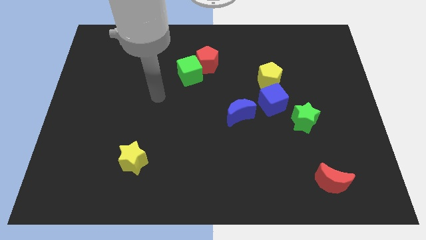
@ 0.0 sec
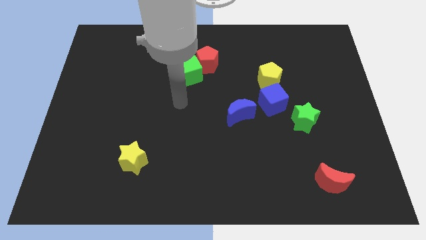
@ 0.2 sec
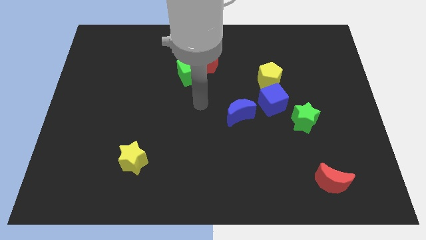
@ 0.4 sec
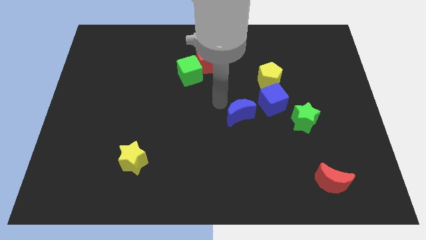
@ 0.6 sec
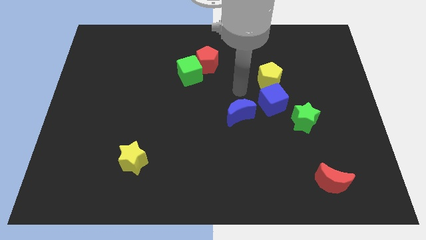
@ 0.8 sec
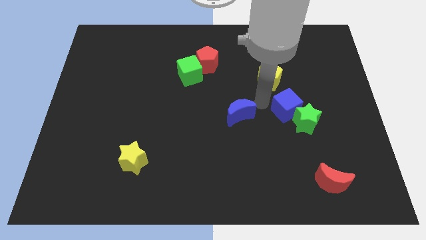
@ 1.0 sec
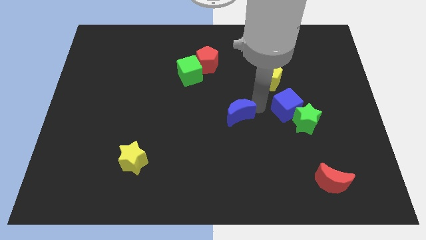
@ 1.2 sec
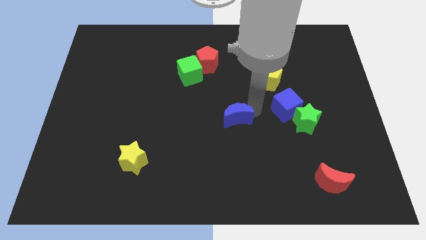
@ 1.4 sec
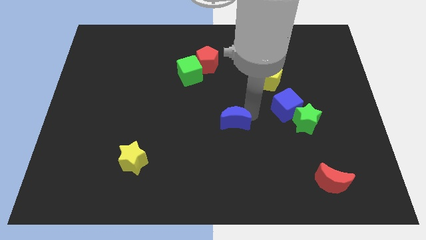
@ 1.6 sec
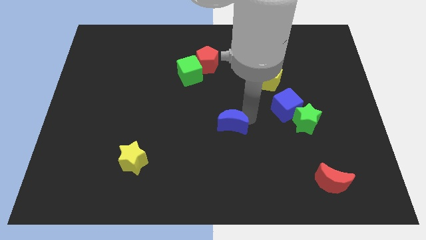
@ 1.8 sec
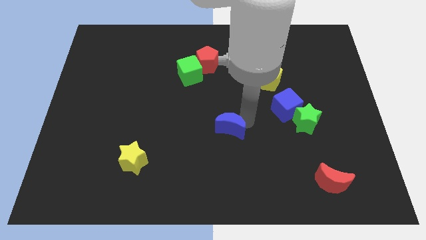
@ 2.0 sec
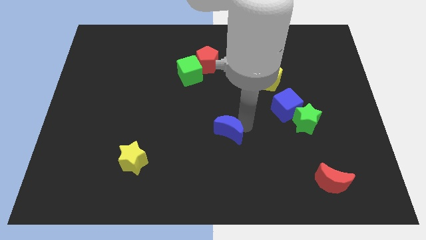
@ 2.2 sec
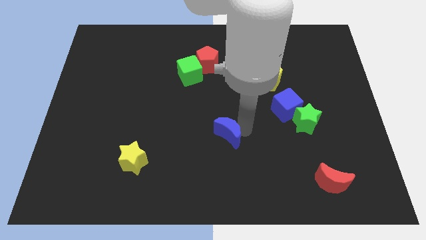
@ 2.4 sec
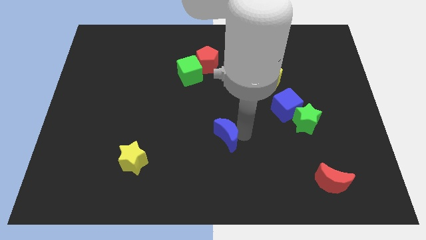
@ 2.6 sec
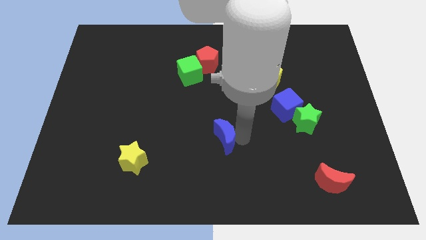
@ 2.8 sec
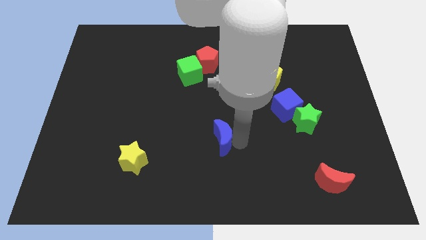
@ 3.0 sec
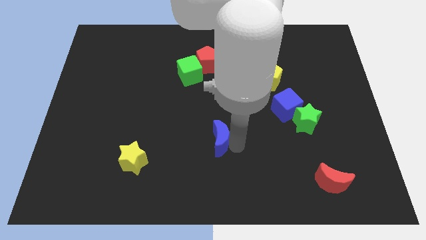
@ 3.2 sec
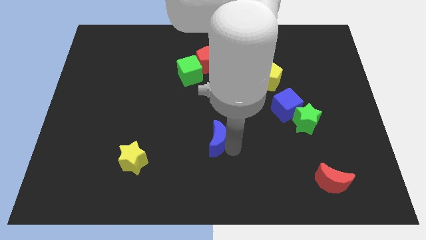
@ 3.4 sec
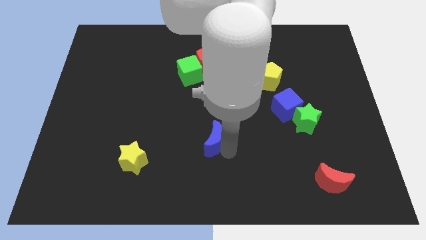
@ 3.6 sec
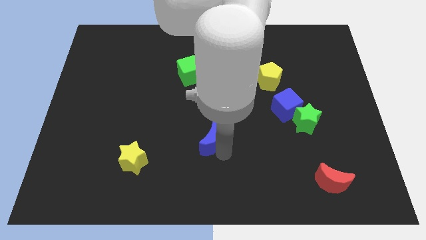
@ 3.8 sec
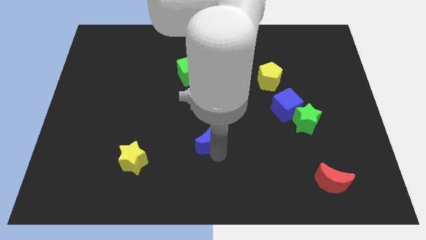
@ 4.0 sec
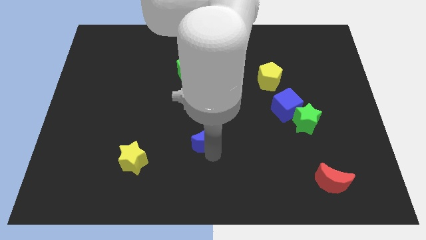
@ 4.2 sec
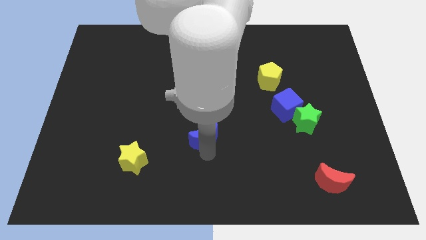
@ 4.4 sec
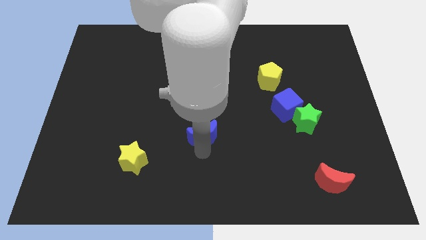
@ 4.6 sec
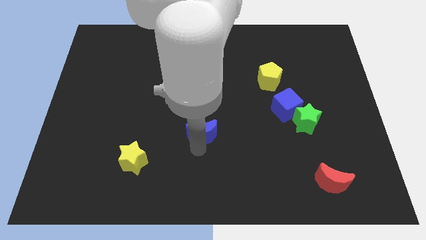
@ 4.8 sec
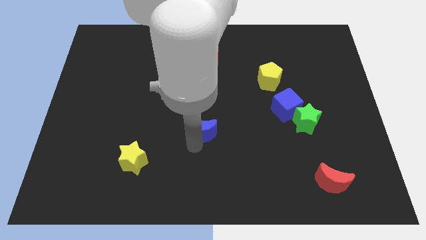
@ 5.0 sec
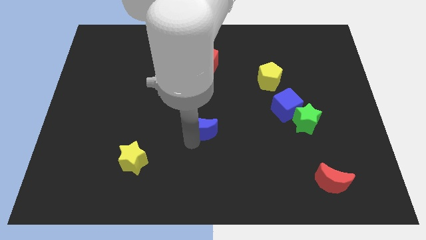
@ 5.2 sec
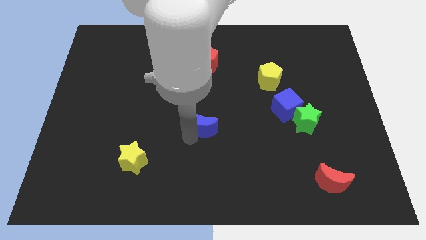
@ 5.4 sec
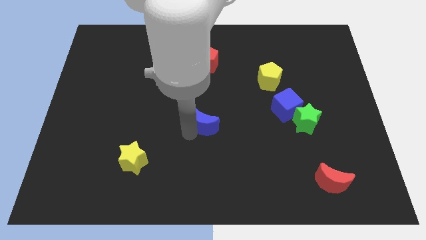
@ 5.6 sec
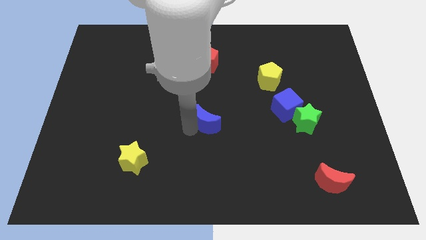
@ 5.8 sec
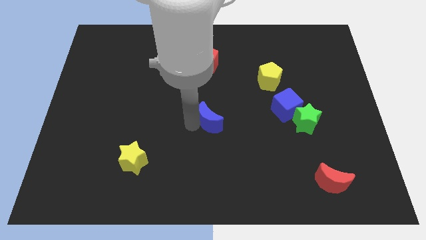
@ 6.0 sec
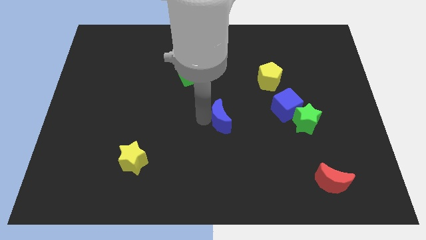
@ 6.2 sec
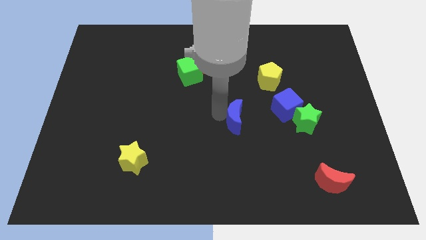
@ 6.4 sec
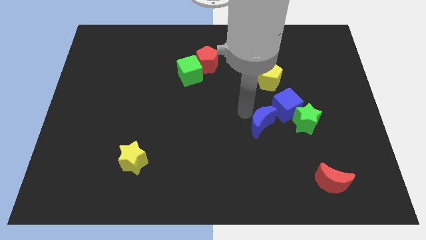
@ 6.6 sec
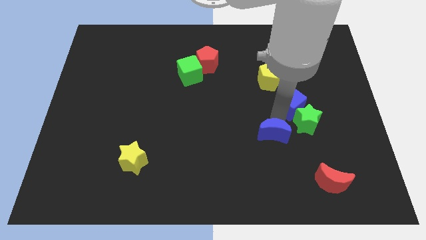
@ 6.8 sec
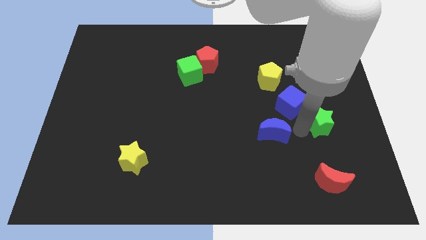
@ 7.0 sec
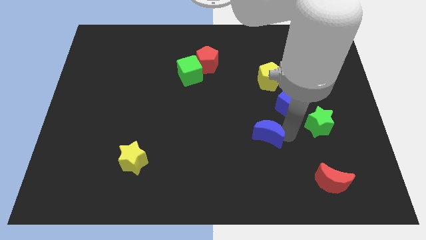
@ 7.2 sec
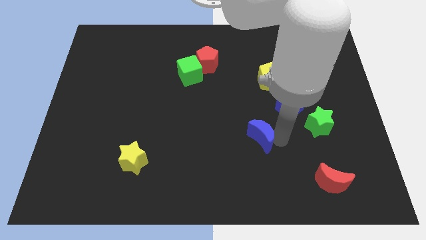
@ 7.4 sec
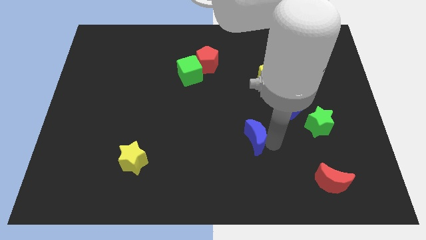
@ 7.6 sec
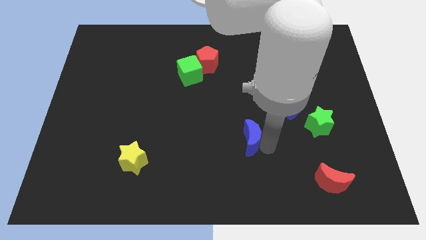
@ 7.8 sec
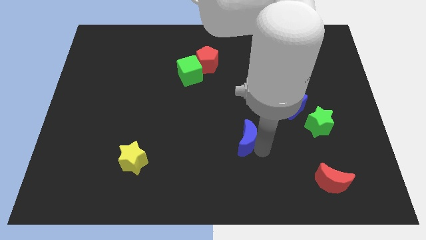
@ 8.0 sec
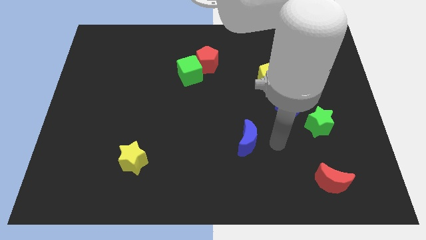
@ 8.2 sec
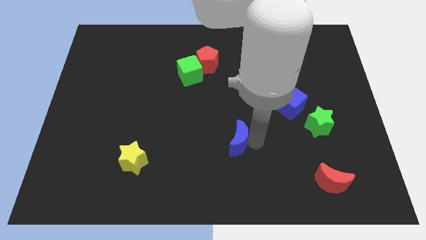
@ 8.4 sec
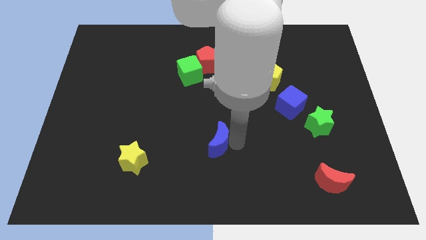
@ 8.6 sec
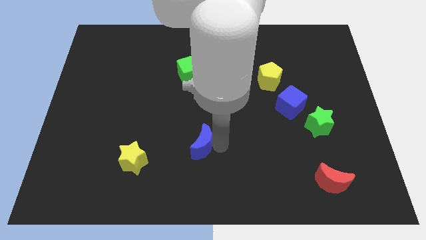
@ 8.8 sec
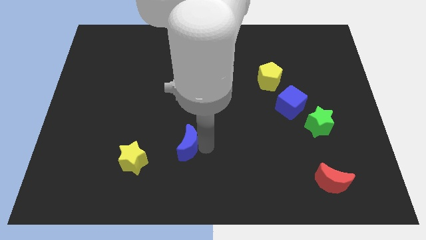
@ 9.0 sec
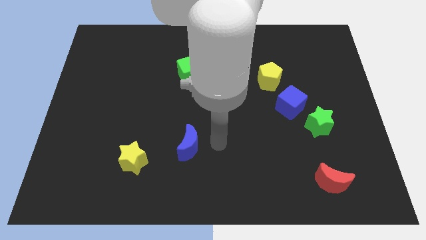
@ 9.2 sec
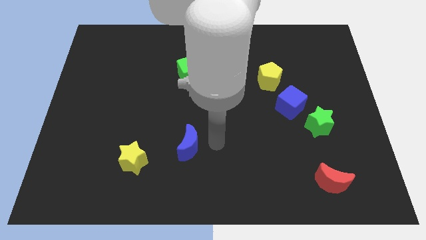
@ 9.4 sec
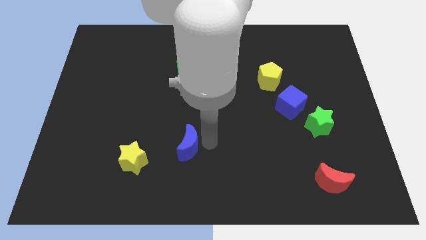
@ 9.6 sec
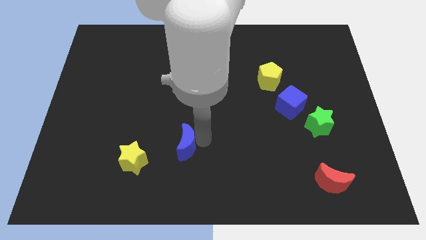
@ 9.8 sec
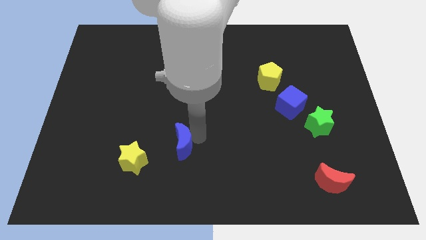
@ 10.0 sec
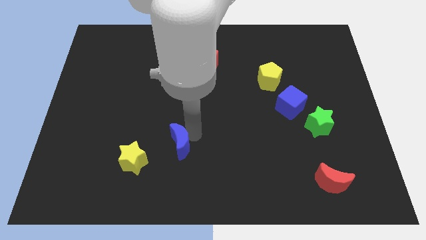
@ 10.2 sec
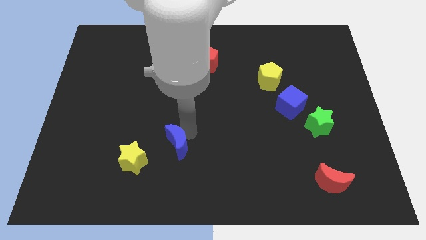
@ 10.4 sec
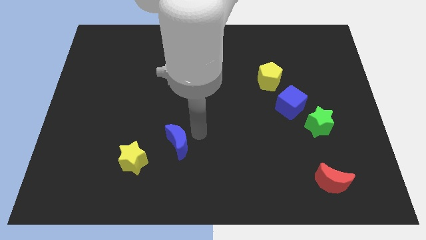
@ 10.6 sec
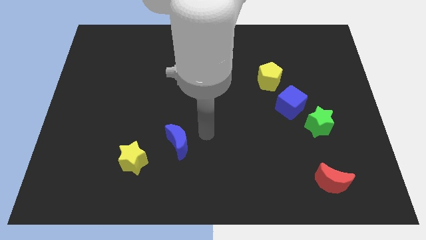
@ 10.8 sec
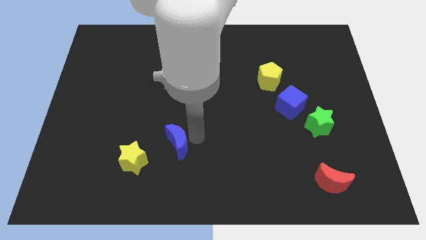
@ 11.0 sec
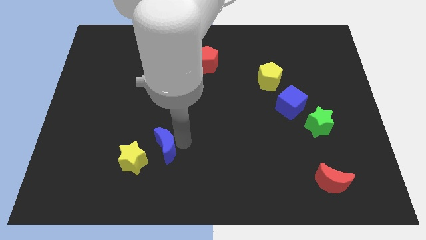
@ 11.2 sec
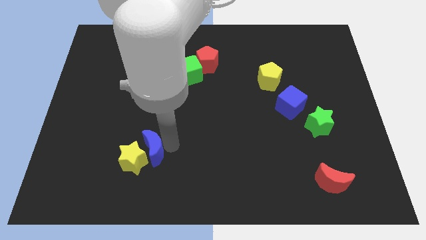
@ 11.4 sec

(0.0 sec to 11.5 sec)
slide the blue moon next to the yellow star

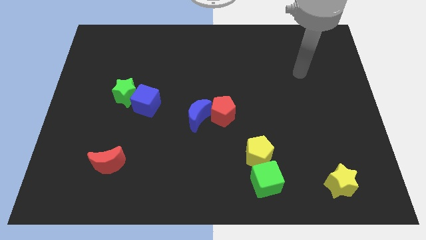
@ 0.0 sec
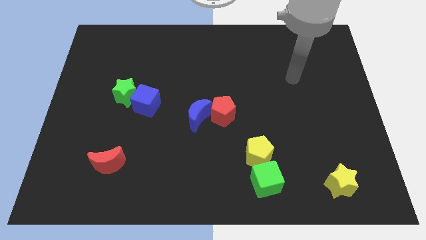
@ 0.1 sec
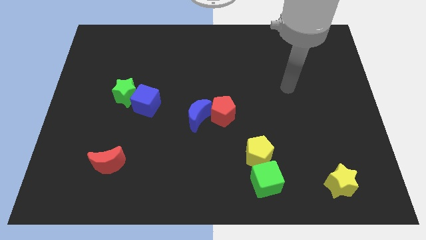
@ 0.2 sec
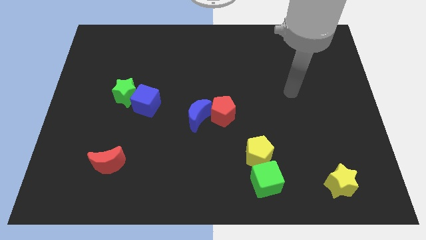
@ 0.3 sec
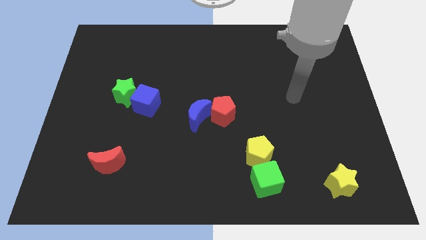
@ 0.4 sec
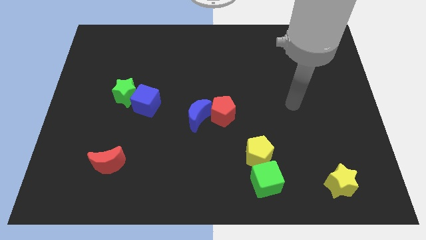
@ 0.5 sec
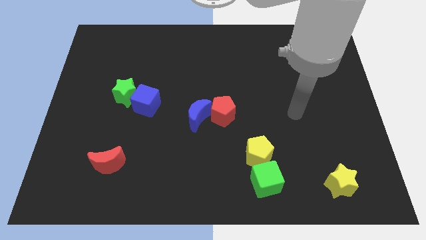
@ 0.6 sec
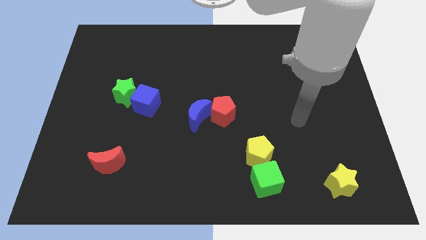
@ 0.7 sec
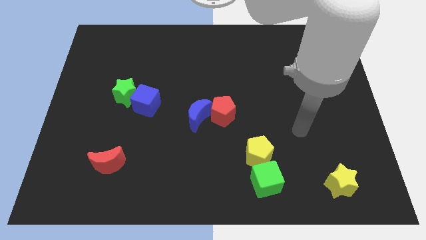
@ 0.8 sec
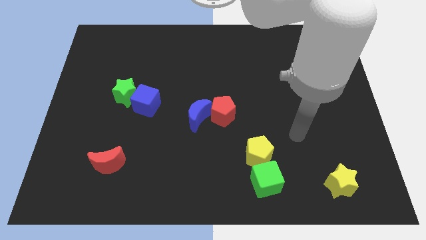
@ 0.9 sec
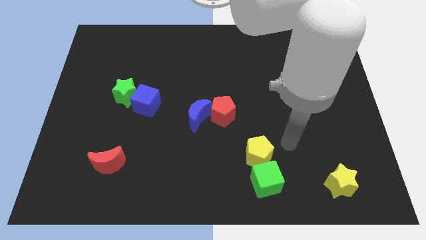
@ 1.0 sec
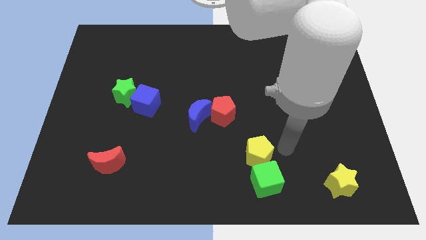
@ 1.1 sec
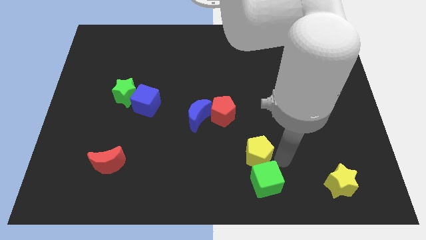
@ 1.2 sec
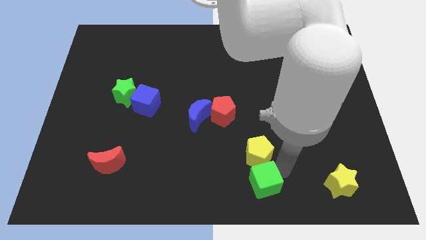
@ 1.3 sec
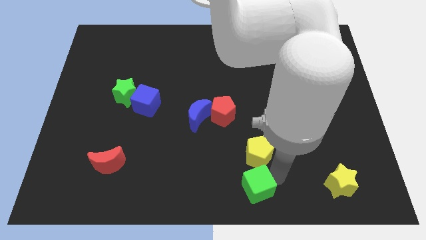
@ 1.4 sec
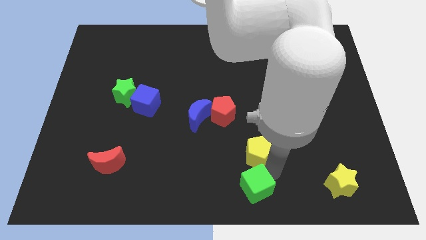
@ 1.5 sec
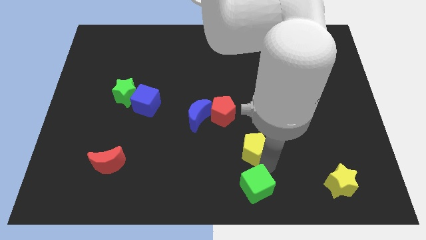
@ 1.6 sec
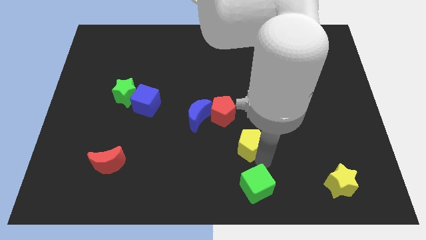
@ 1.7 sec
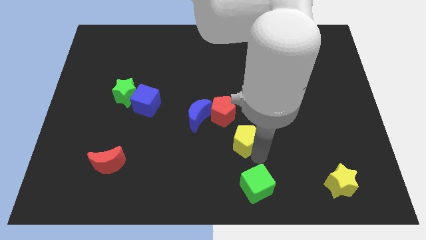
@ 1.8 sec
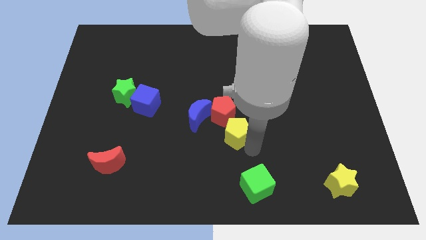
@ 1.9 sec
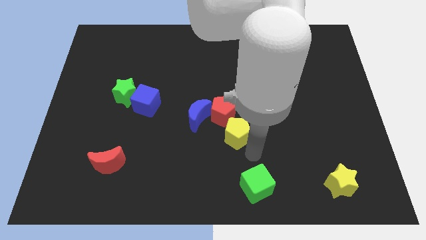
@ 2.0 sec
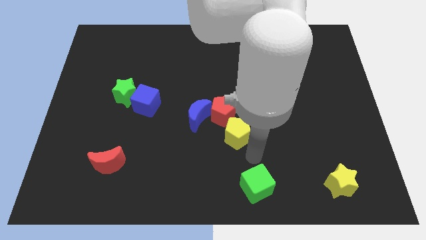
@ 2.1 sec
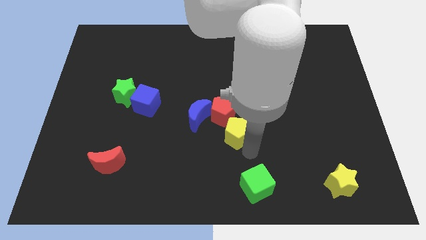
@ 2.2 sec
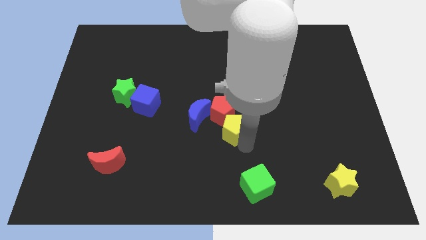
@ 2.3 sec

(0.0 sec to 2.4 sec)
push the yellow pentagon to the red pentagon
